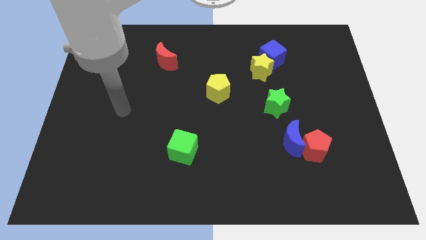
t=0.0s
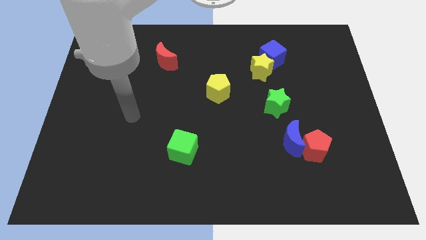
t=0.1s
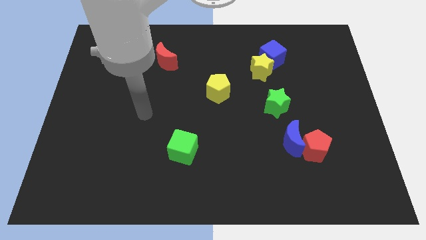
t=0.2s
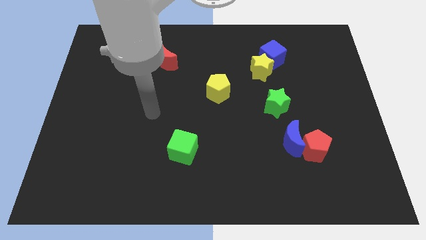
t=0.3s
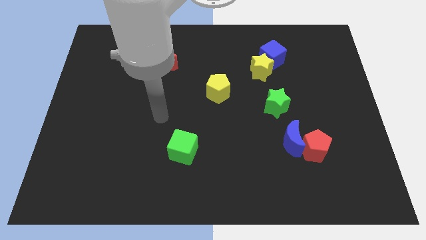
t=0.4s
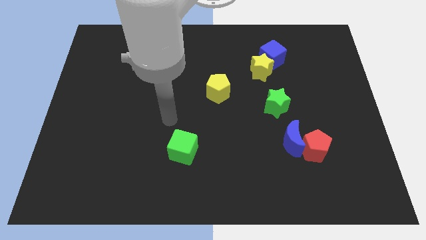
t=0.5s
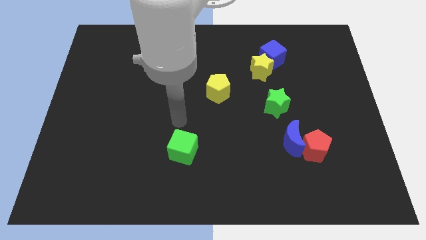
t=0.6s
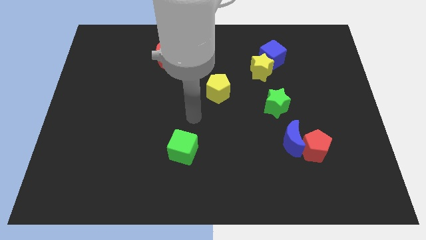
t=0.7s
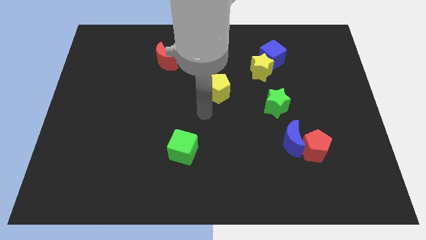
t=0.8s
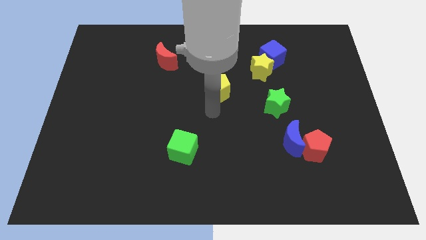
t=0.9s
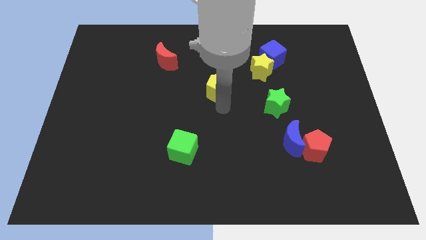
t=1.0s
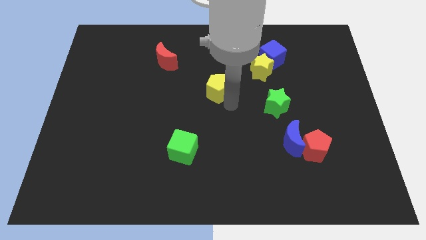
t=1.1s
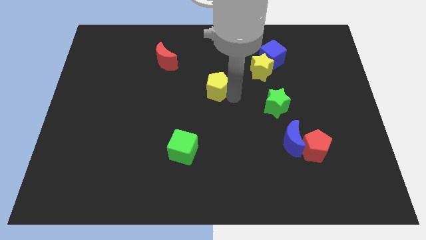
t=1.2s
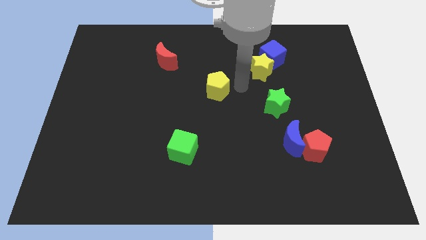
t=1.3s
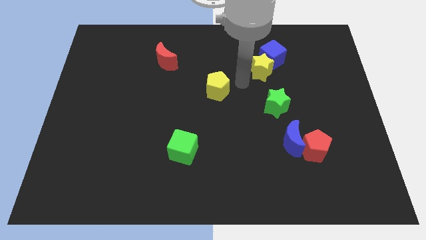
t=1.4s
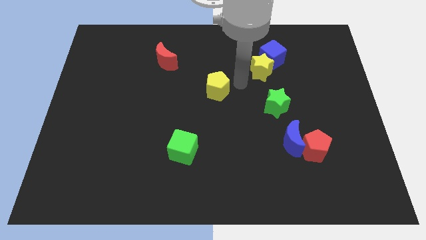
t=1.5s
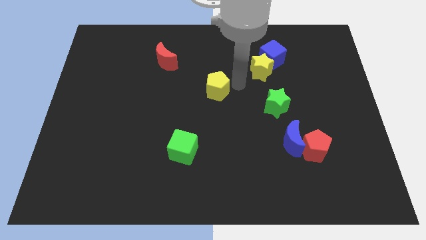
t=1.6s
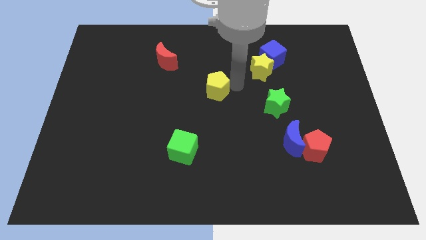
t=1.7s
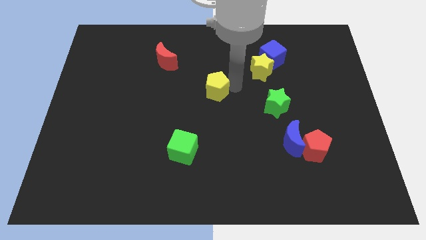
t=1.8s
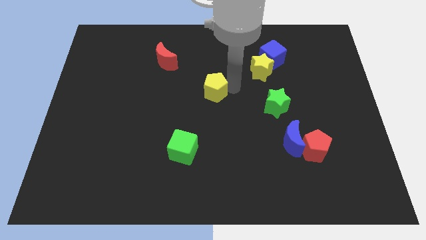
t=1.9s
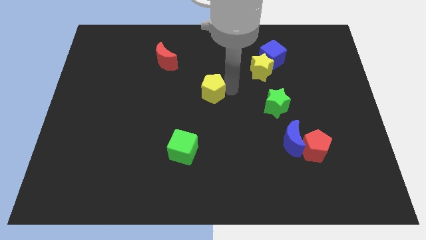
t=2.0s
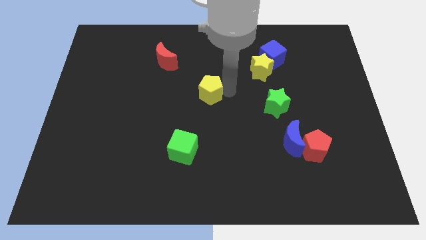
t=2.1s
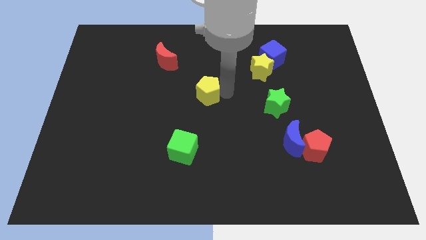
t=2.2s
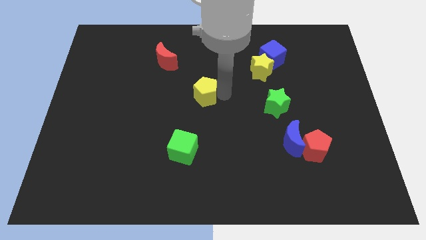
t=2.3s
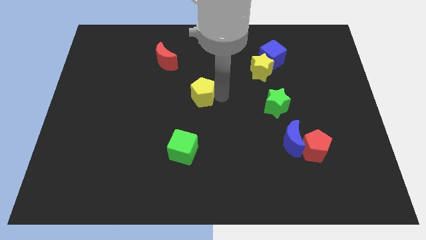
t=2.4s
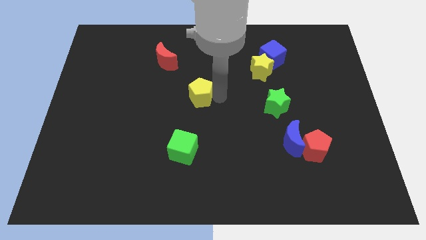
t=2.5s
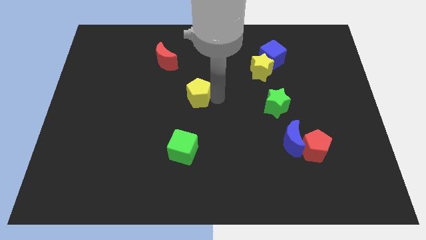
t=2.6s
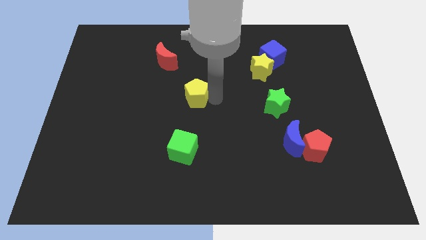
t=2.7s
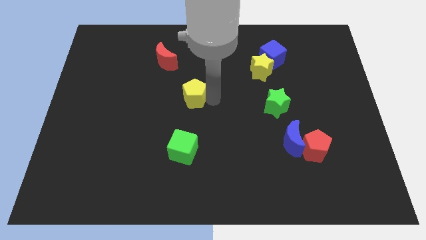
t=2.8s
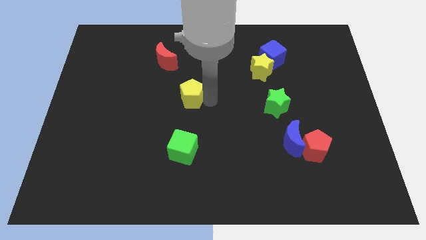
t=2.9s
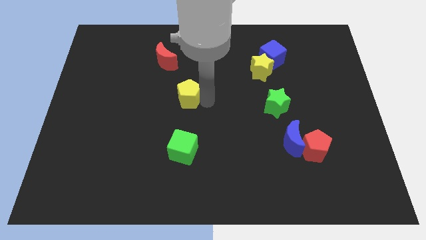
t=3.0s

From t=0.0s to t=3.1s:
move the yellow pentagon left slightly

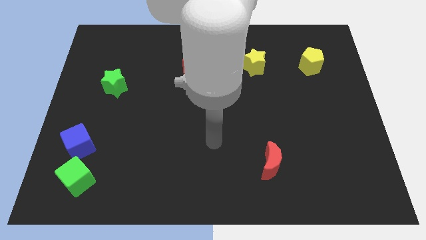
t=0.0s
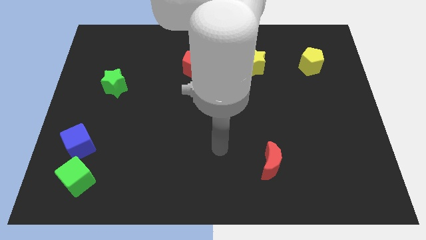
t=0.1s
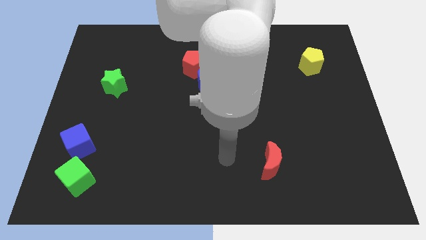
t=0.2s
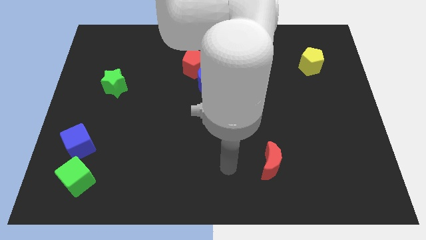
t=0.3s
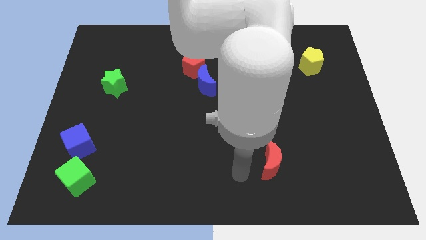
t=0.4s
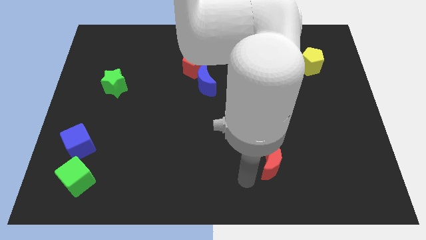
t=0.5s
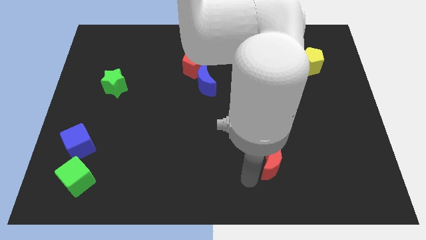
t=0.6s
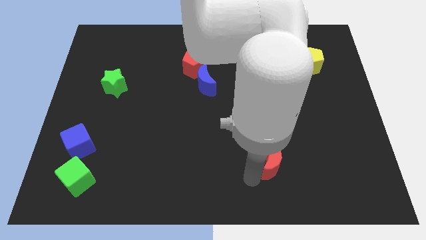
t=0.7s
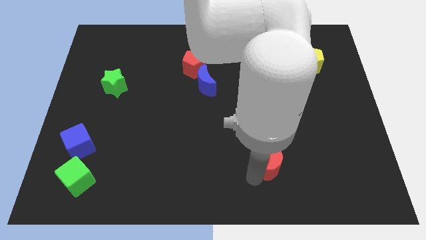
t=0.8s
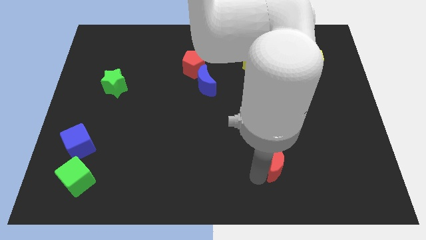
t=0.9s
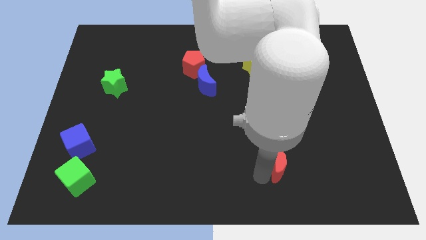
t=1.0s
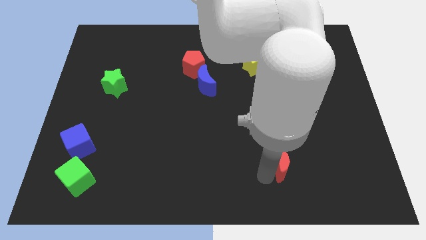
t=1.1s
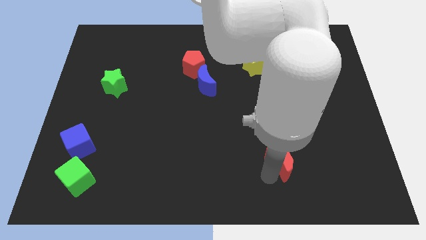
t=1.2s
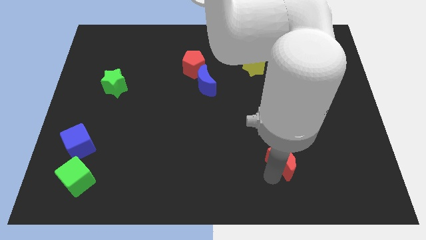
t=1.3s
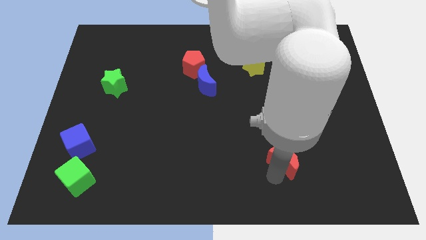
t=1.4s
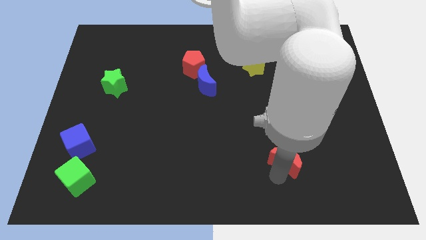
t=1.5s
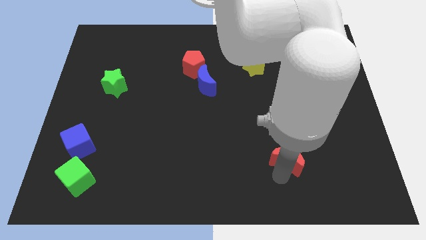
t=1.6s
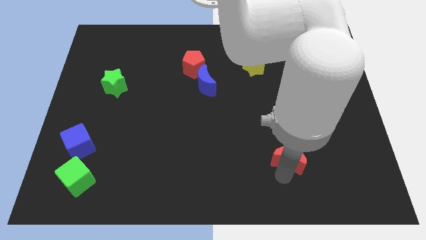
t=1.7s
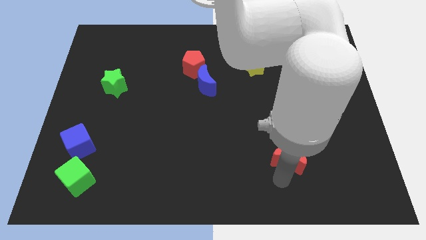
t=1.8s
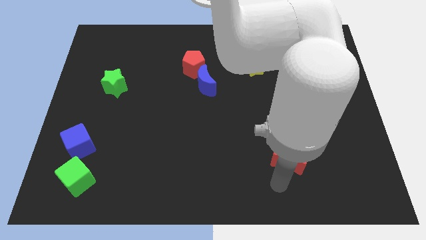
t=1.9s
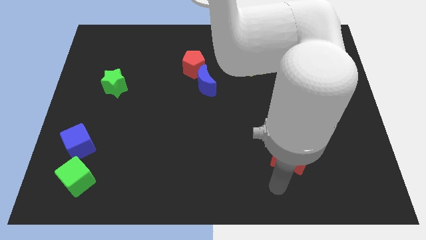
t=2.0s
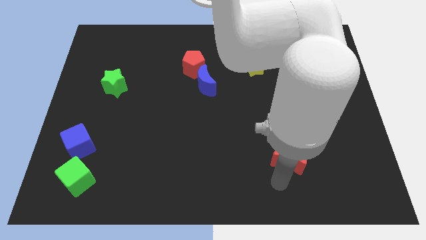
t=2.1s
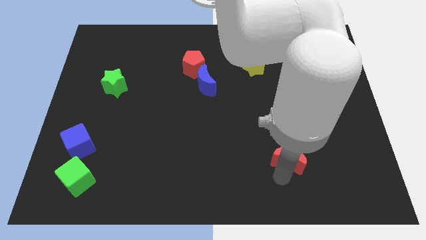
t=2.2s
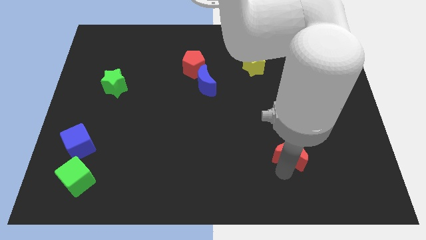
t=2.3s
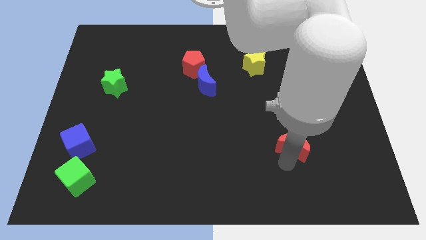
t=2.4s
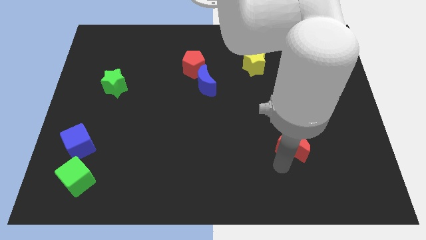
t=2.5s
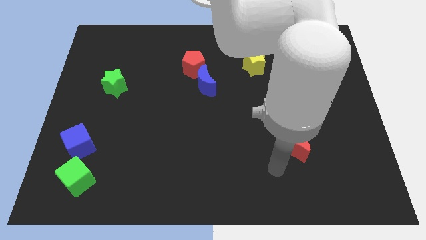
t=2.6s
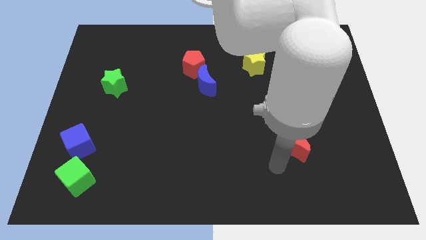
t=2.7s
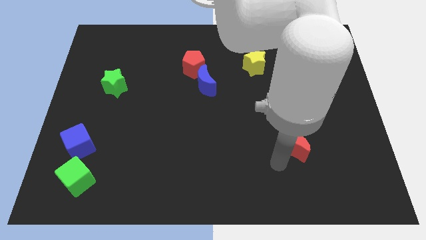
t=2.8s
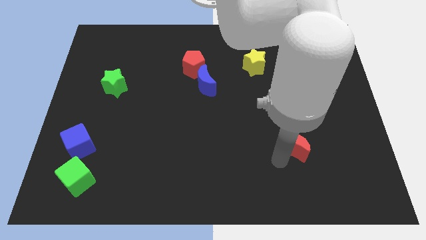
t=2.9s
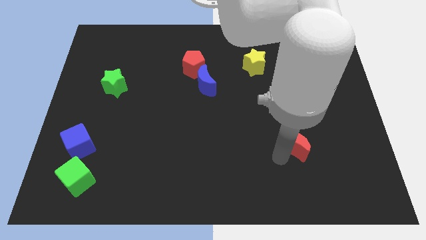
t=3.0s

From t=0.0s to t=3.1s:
move the red moon up and right slightly

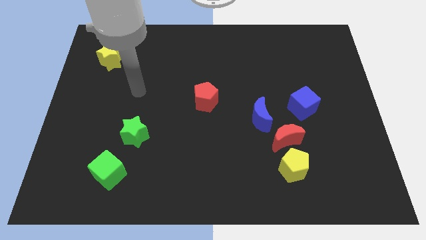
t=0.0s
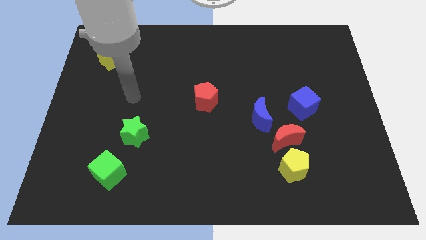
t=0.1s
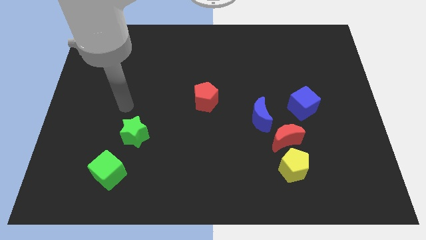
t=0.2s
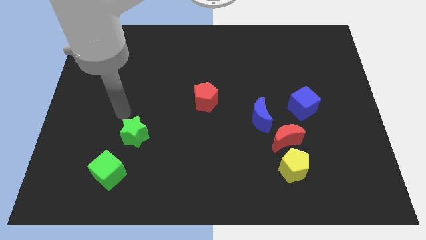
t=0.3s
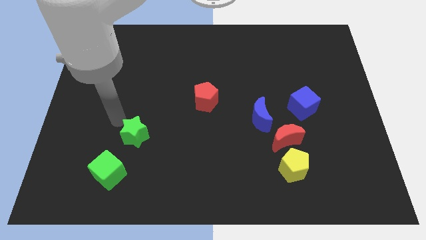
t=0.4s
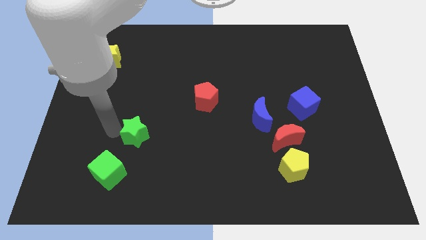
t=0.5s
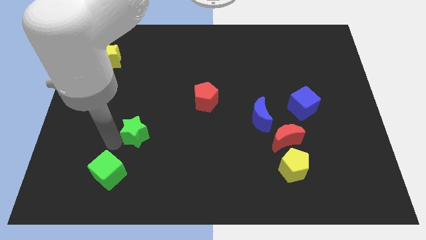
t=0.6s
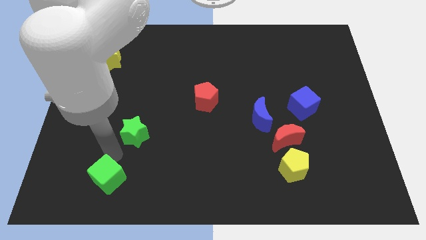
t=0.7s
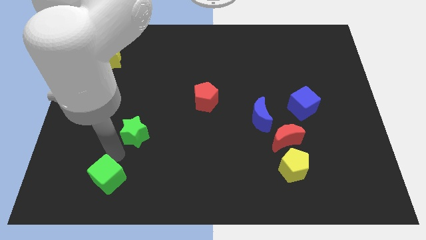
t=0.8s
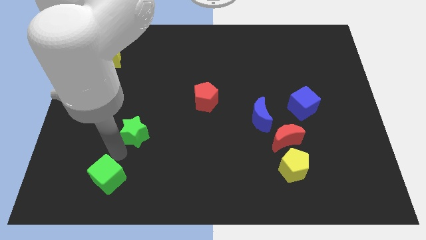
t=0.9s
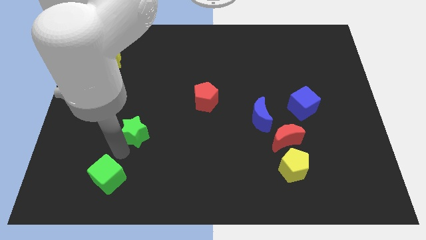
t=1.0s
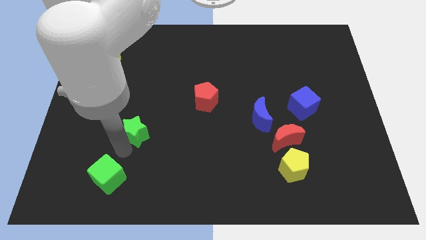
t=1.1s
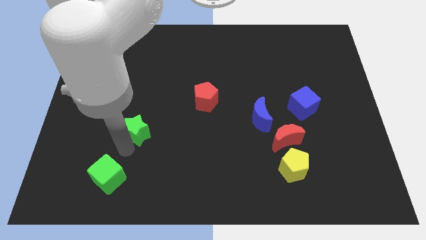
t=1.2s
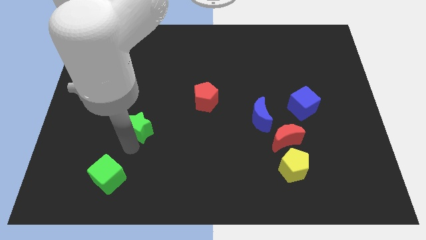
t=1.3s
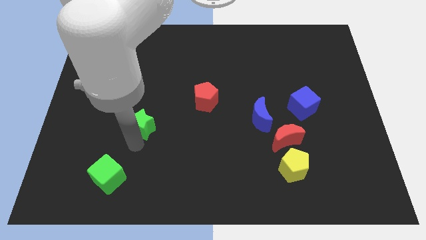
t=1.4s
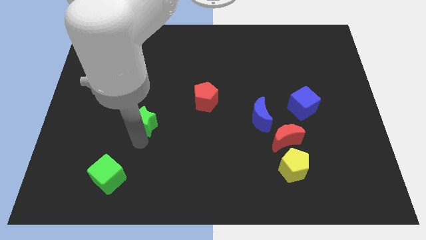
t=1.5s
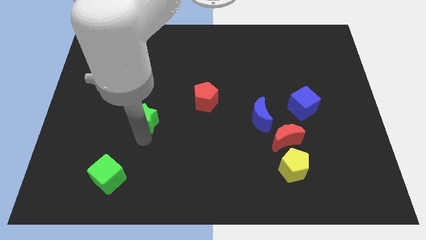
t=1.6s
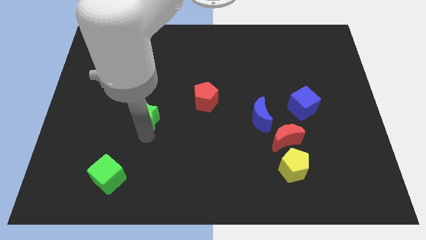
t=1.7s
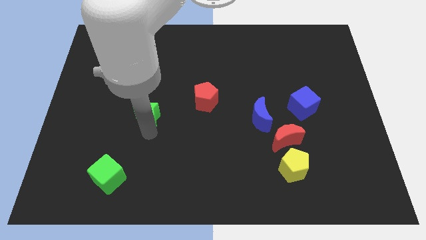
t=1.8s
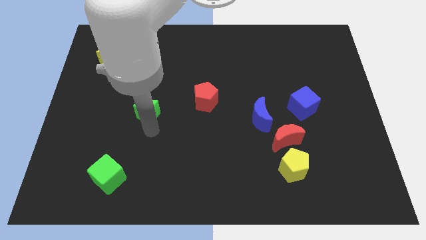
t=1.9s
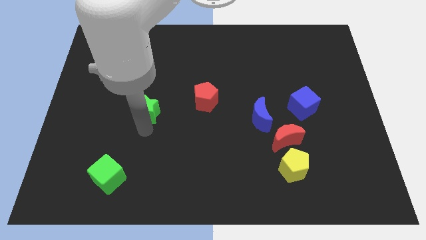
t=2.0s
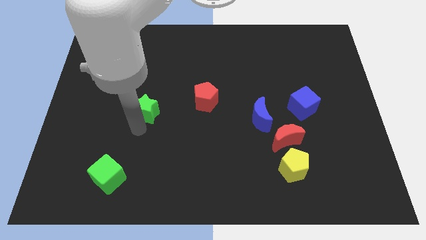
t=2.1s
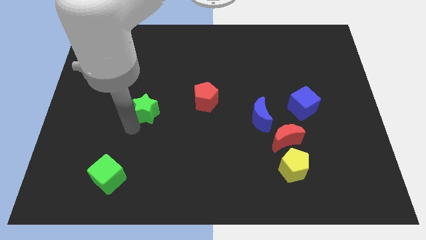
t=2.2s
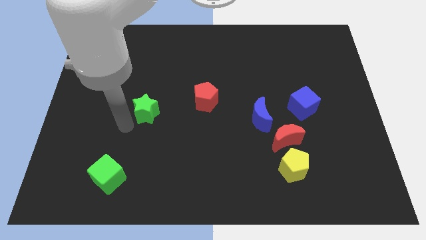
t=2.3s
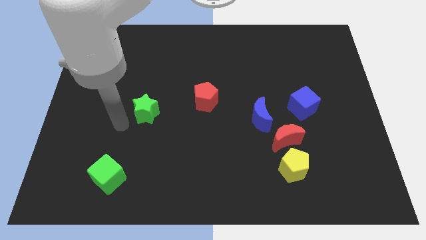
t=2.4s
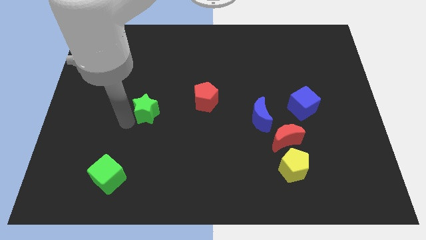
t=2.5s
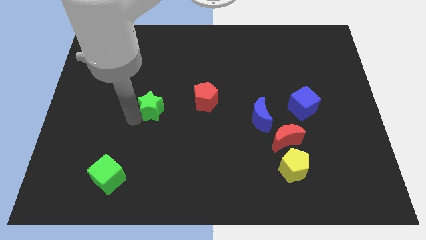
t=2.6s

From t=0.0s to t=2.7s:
push the green star somewhat diagonally up and right
